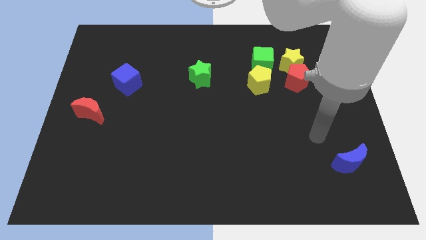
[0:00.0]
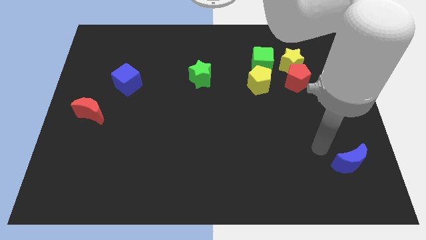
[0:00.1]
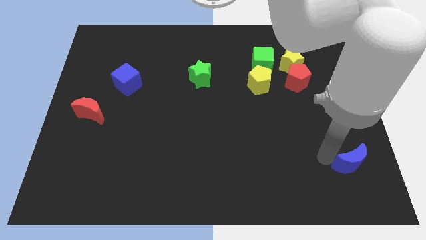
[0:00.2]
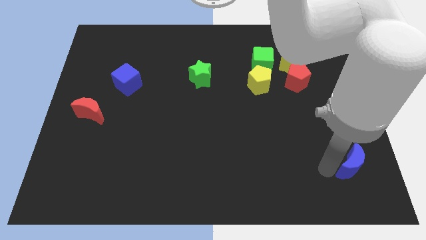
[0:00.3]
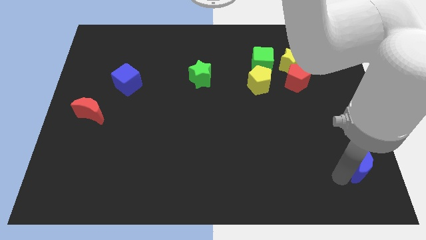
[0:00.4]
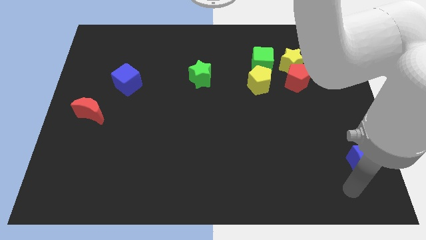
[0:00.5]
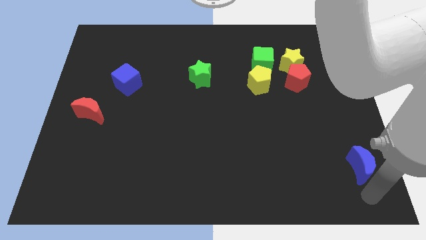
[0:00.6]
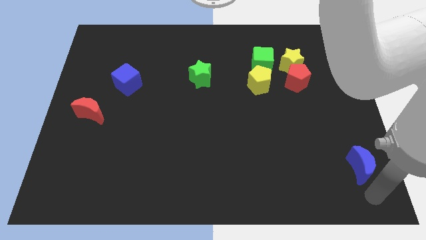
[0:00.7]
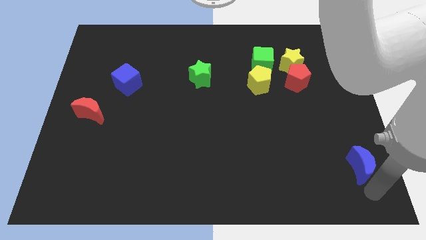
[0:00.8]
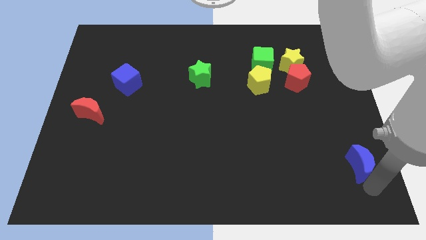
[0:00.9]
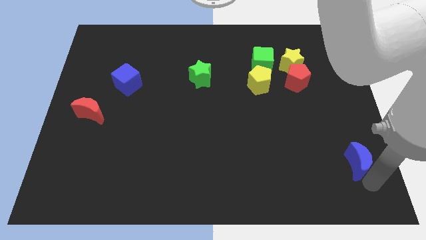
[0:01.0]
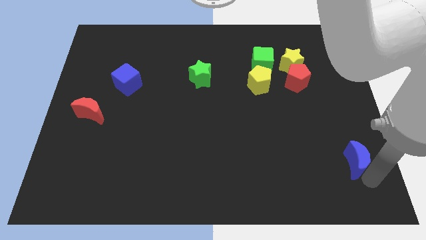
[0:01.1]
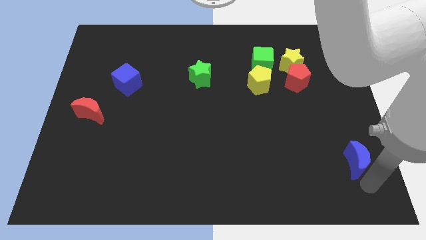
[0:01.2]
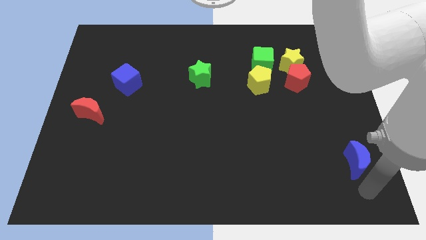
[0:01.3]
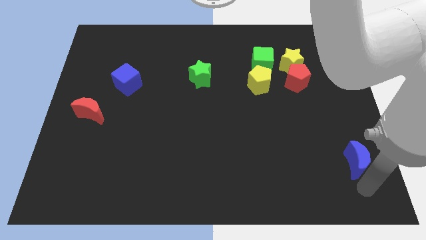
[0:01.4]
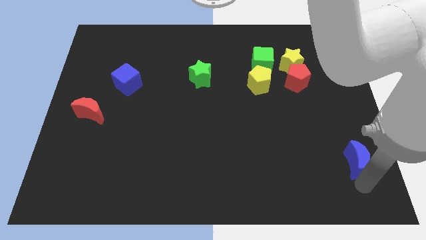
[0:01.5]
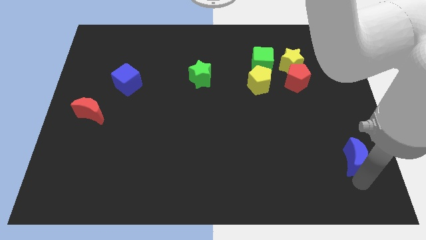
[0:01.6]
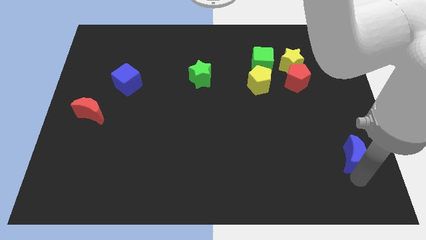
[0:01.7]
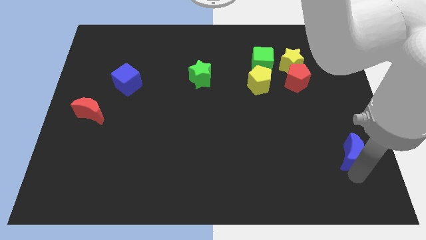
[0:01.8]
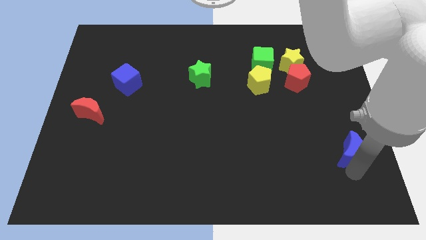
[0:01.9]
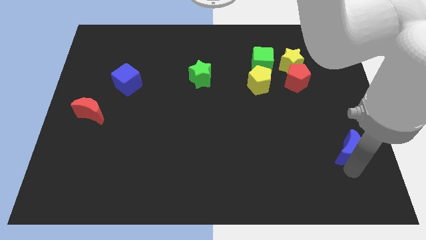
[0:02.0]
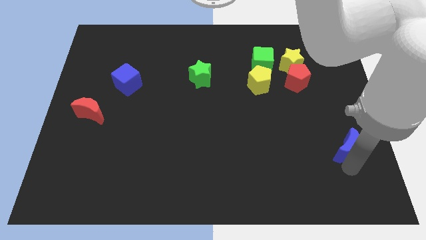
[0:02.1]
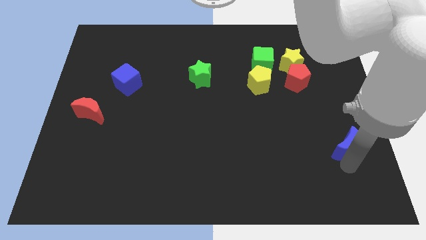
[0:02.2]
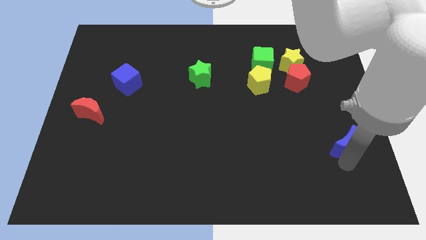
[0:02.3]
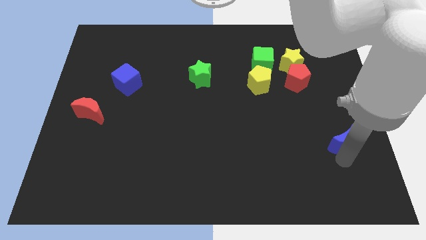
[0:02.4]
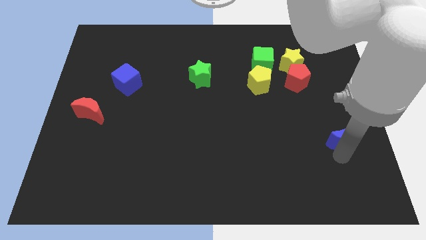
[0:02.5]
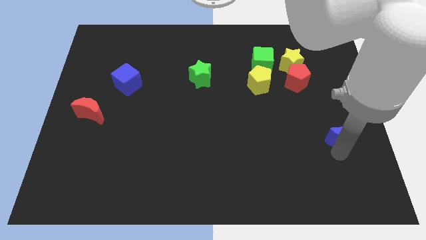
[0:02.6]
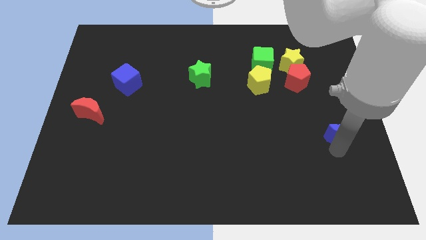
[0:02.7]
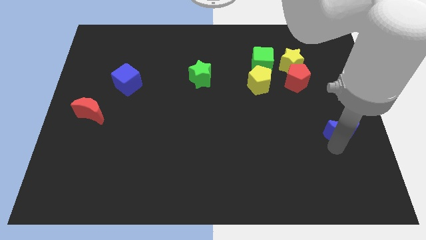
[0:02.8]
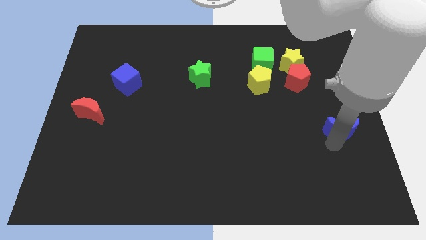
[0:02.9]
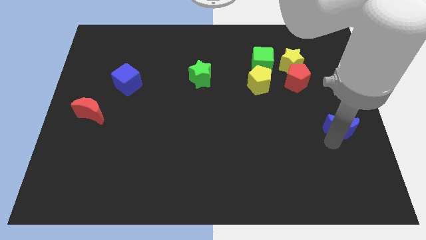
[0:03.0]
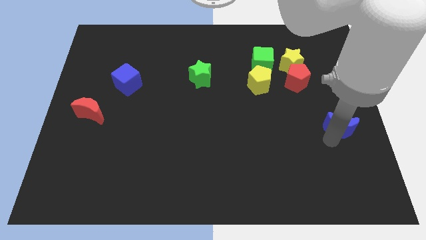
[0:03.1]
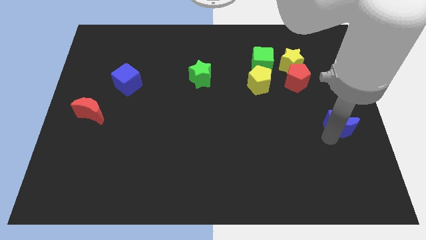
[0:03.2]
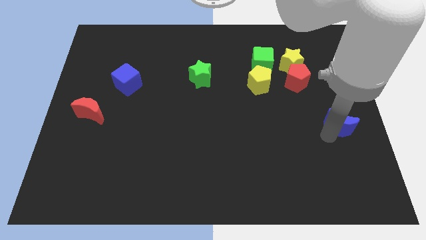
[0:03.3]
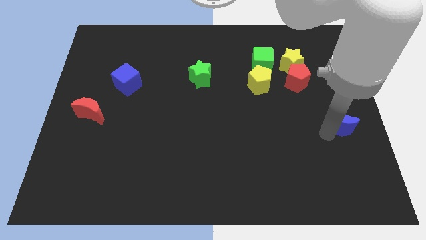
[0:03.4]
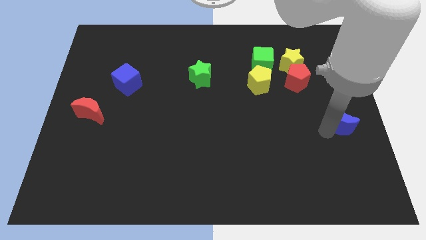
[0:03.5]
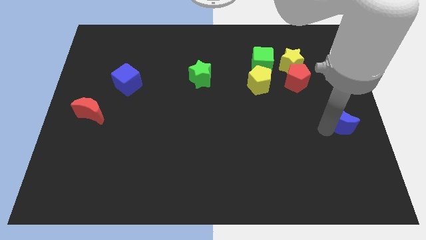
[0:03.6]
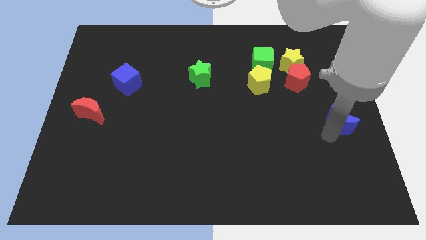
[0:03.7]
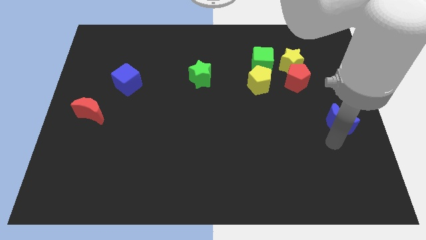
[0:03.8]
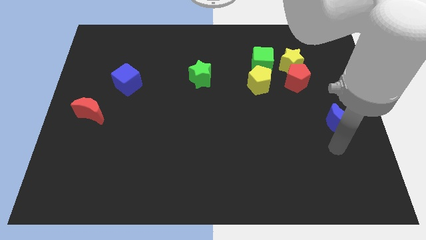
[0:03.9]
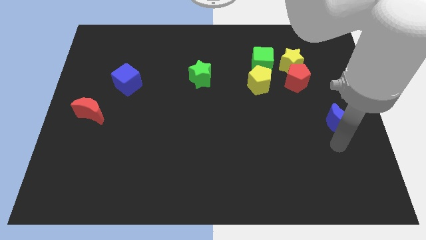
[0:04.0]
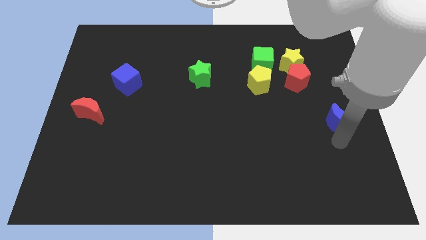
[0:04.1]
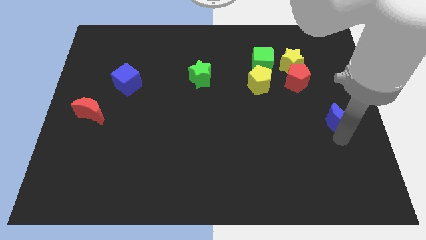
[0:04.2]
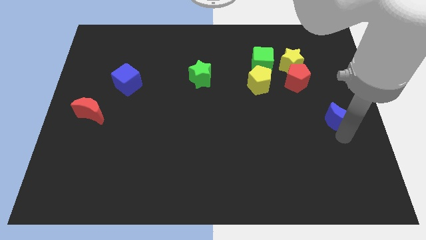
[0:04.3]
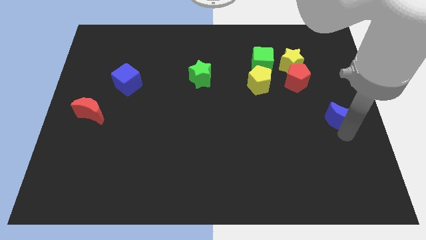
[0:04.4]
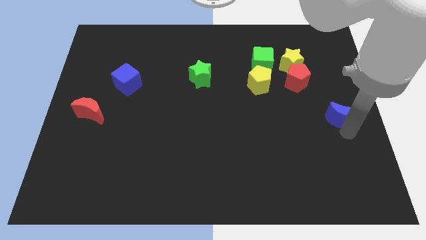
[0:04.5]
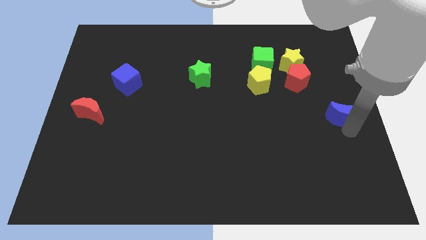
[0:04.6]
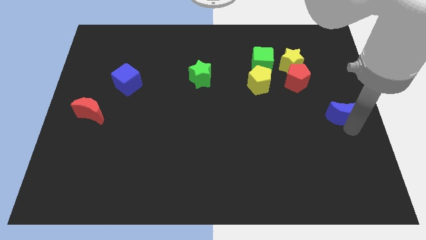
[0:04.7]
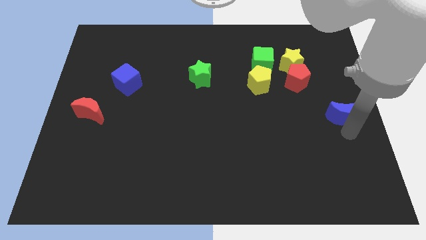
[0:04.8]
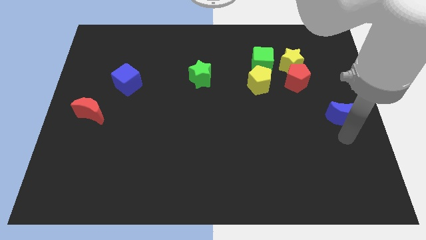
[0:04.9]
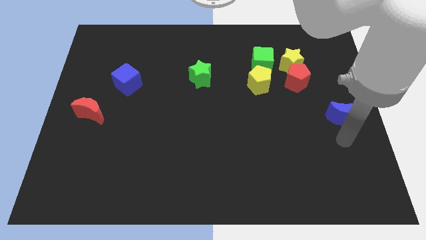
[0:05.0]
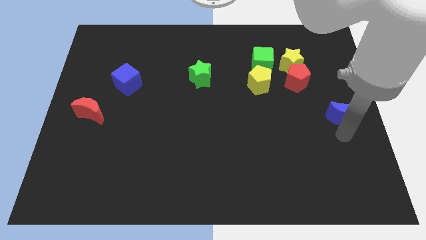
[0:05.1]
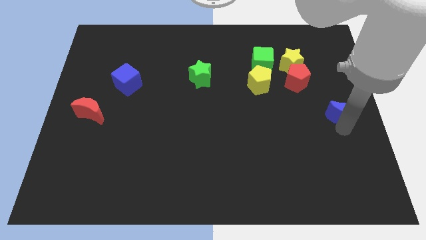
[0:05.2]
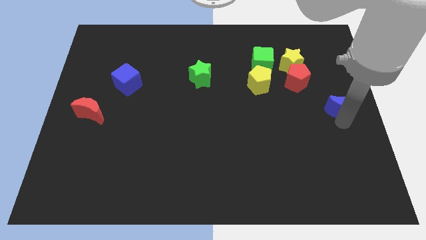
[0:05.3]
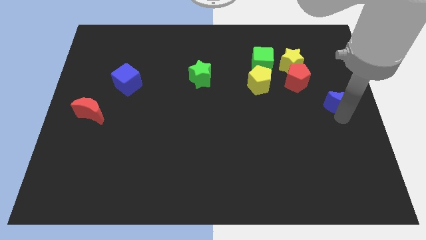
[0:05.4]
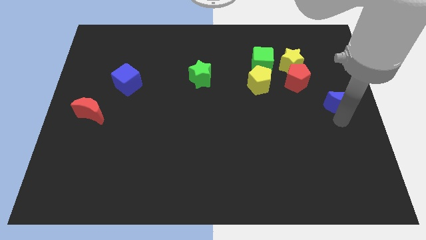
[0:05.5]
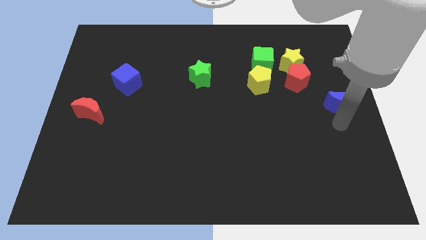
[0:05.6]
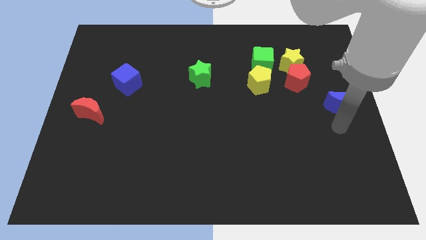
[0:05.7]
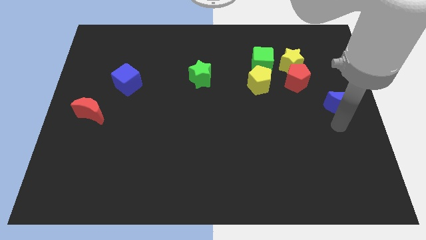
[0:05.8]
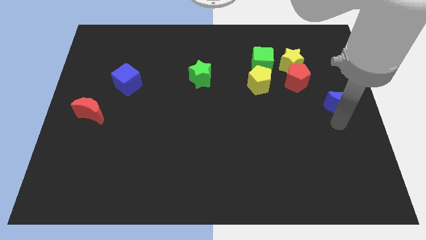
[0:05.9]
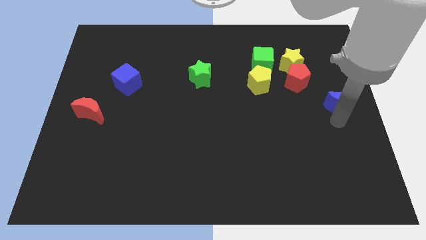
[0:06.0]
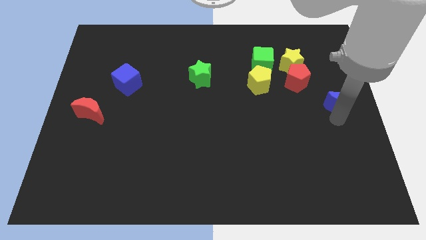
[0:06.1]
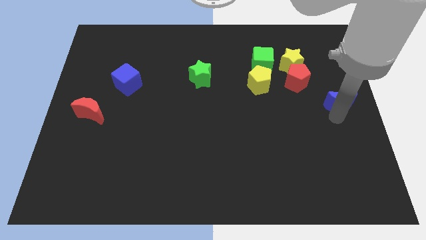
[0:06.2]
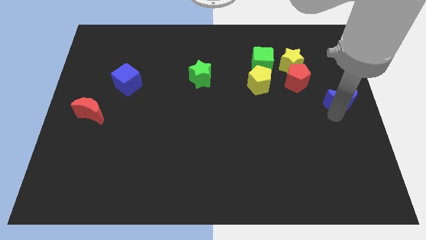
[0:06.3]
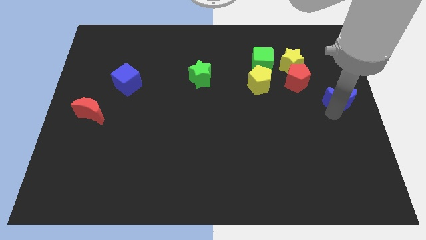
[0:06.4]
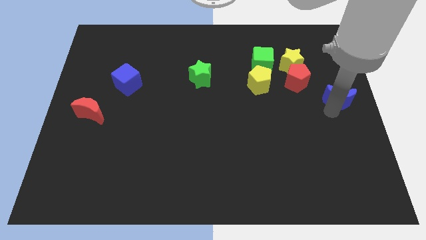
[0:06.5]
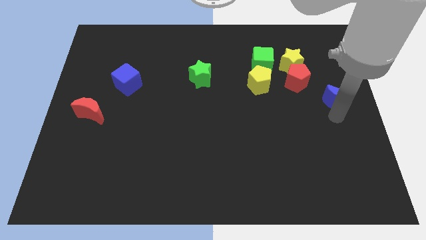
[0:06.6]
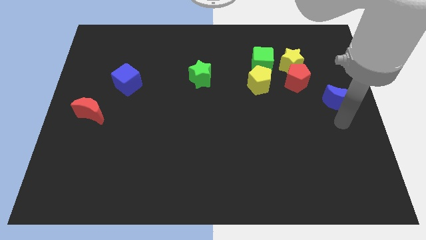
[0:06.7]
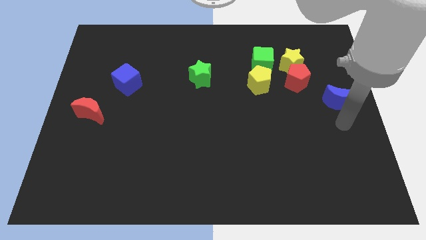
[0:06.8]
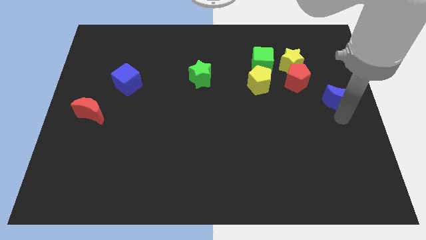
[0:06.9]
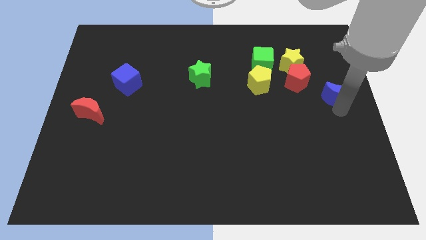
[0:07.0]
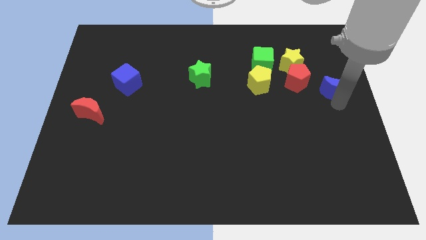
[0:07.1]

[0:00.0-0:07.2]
push the blue moon up

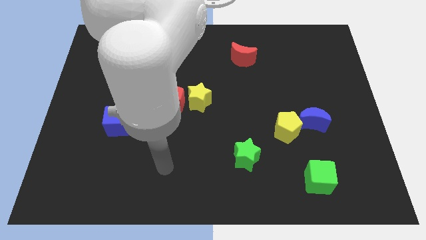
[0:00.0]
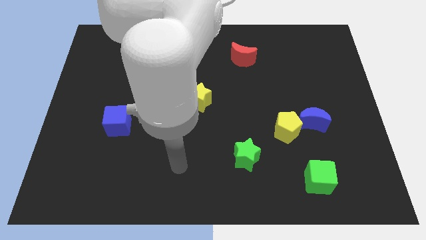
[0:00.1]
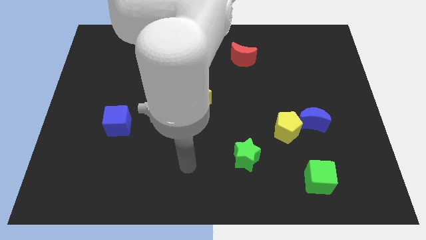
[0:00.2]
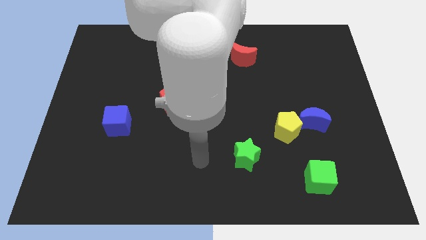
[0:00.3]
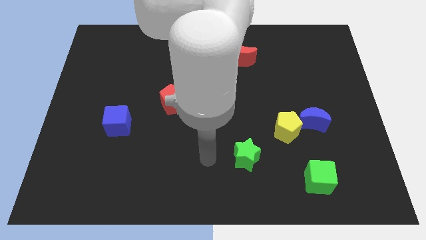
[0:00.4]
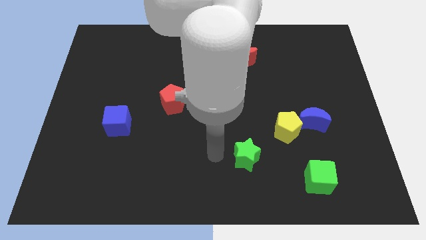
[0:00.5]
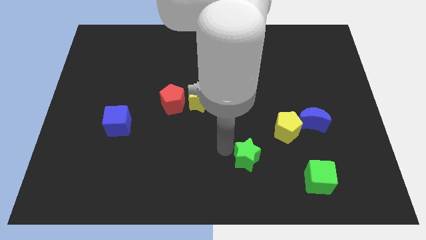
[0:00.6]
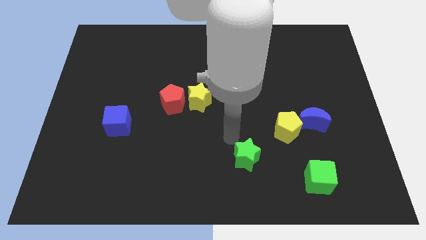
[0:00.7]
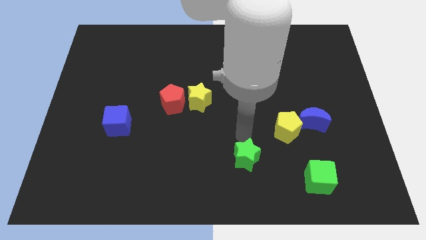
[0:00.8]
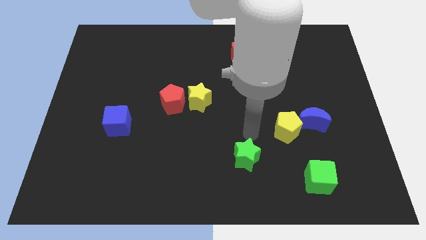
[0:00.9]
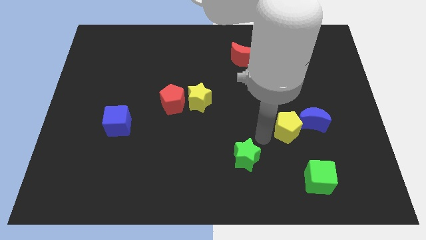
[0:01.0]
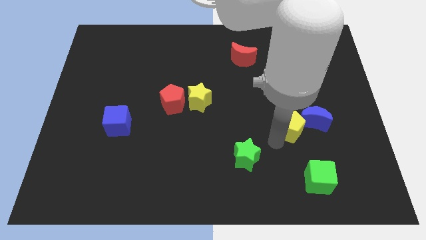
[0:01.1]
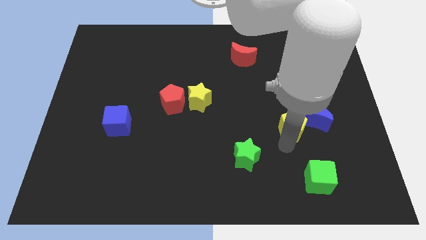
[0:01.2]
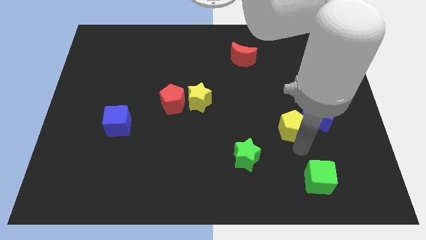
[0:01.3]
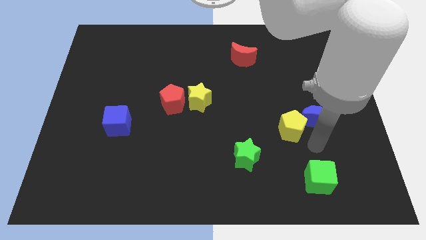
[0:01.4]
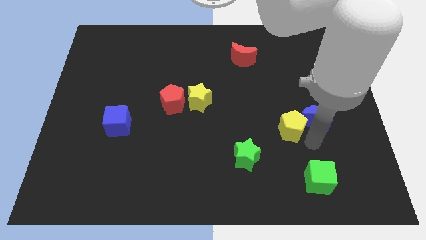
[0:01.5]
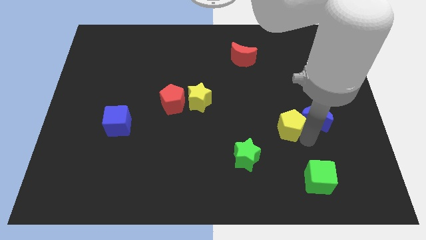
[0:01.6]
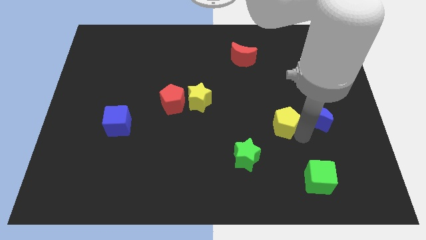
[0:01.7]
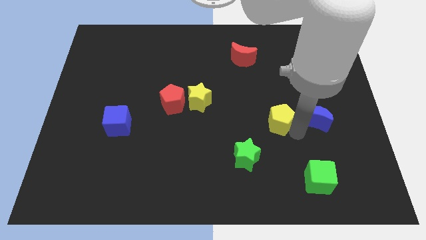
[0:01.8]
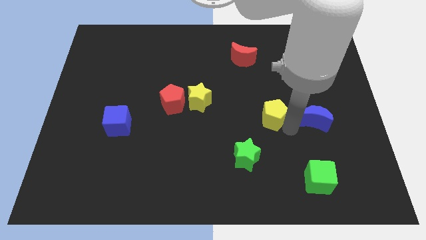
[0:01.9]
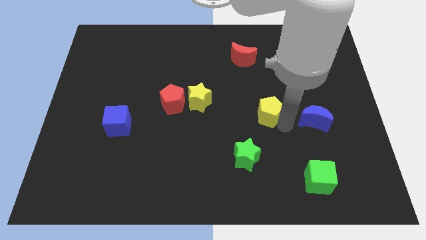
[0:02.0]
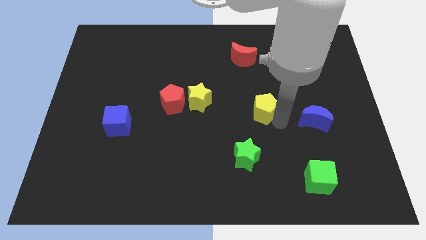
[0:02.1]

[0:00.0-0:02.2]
slide the yellow pentagon upwards and to the left a little bit
